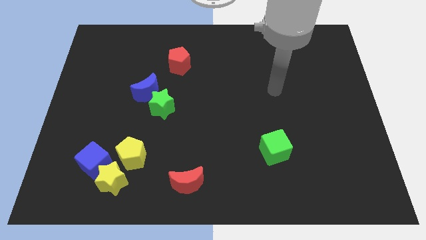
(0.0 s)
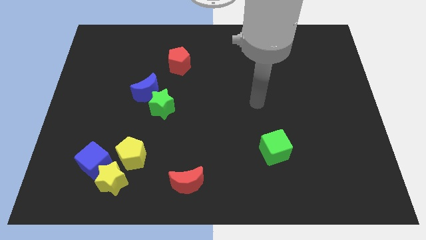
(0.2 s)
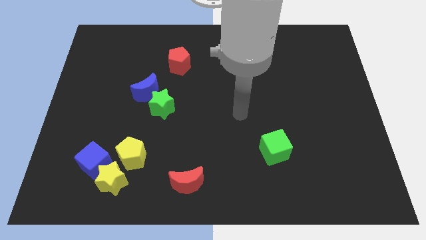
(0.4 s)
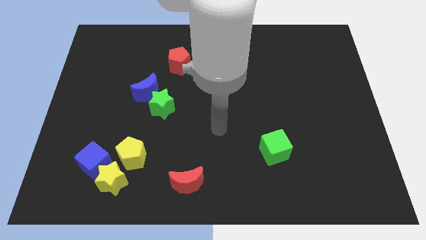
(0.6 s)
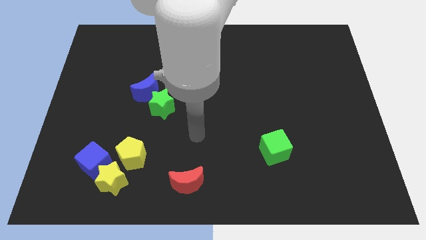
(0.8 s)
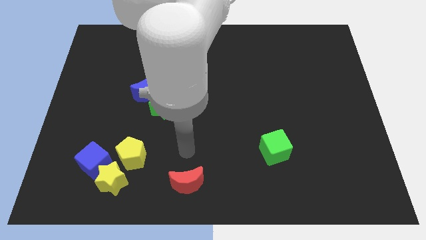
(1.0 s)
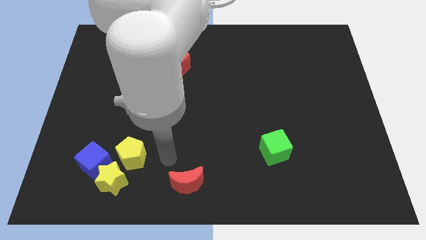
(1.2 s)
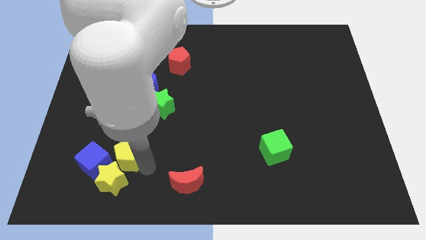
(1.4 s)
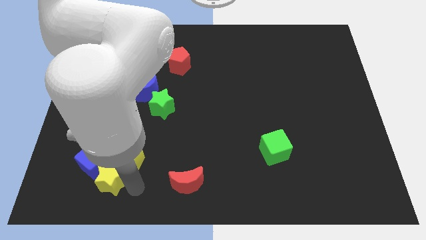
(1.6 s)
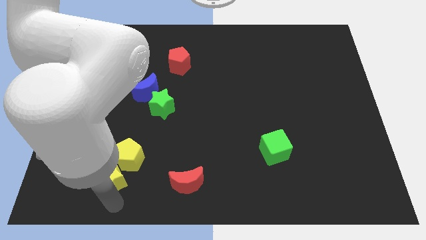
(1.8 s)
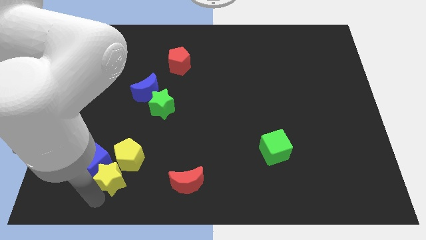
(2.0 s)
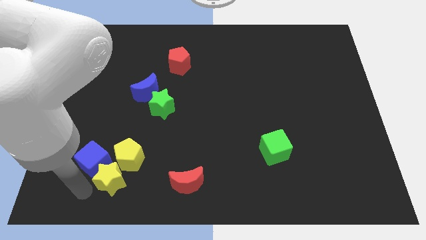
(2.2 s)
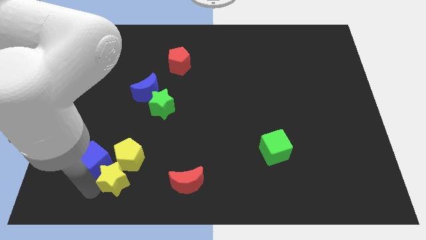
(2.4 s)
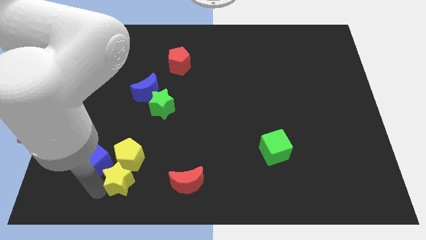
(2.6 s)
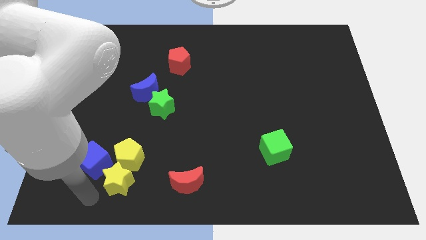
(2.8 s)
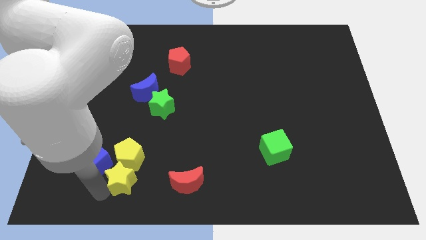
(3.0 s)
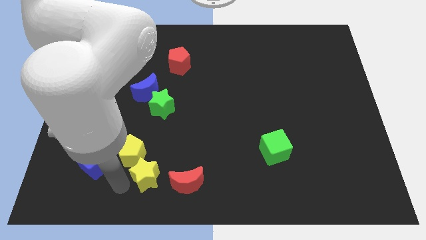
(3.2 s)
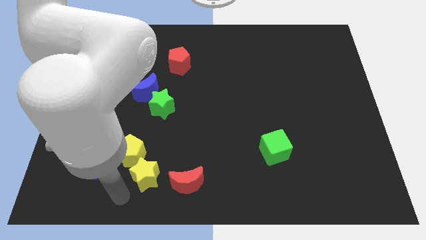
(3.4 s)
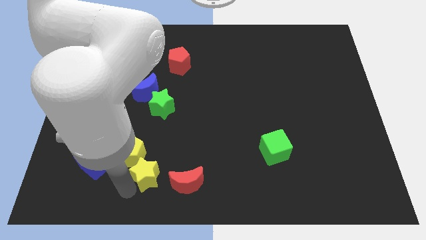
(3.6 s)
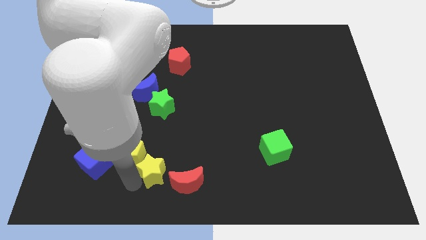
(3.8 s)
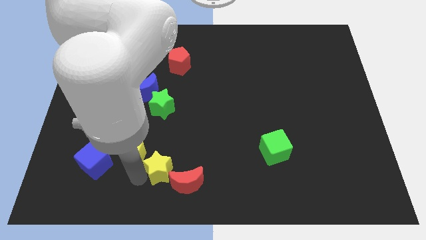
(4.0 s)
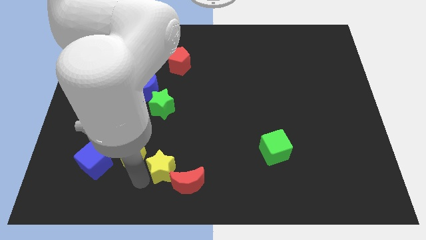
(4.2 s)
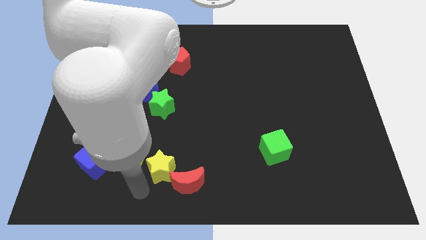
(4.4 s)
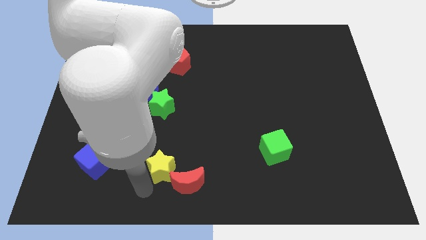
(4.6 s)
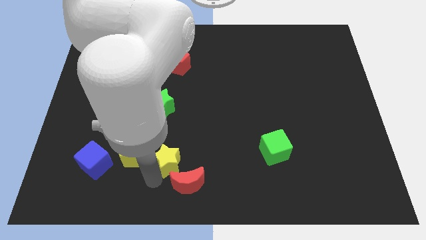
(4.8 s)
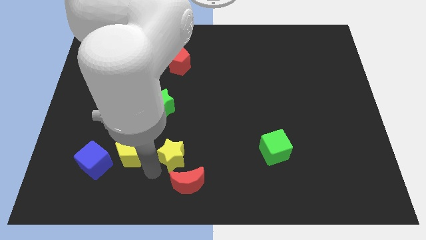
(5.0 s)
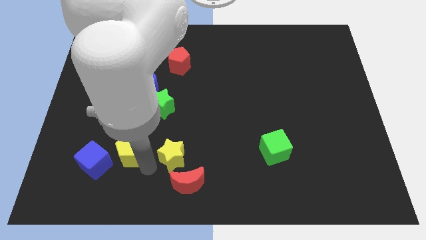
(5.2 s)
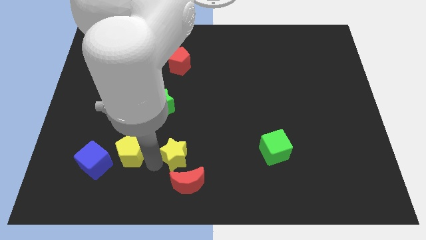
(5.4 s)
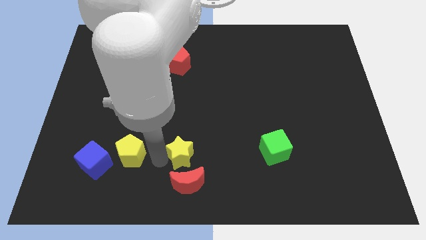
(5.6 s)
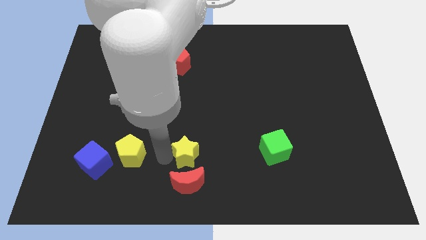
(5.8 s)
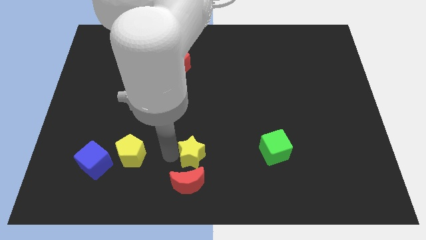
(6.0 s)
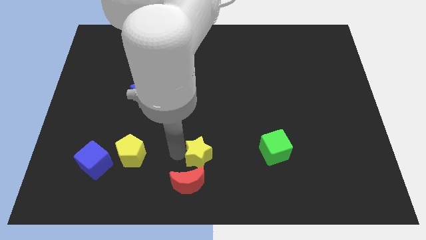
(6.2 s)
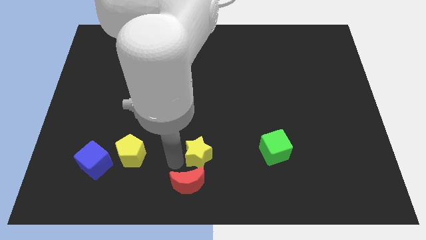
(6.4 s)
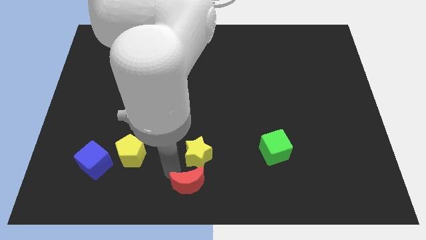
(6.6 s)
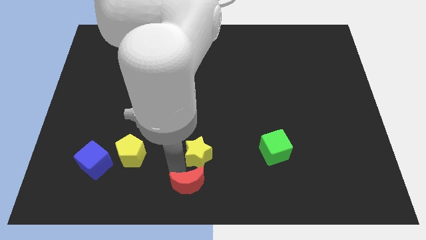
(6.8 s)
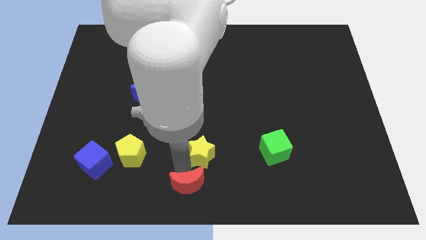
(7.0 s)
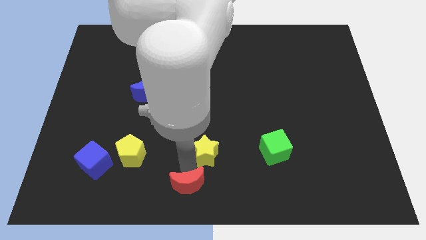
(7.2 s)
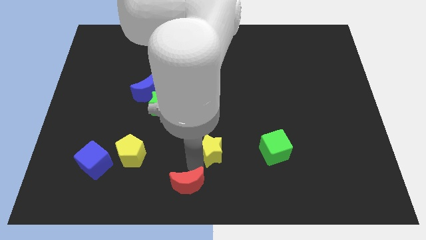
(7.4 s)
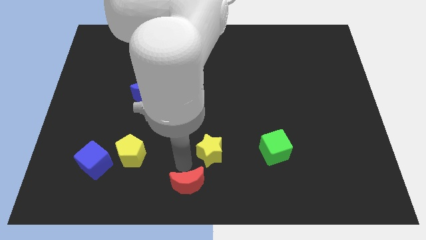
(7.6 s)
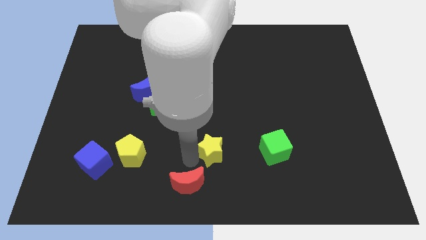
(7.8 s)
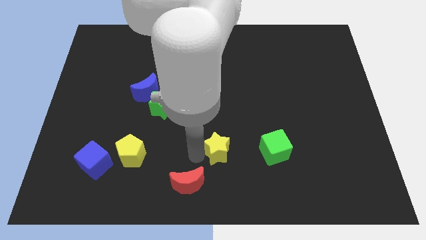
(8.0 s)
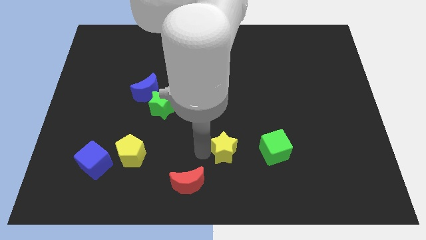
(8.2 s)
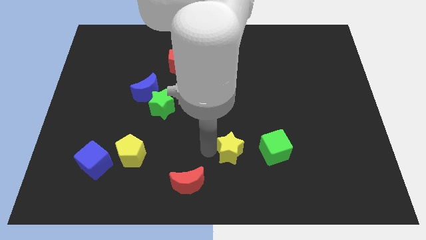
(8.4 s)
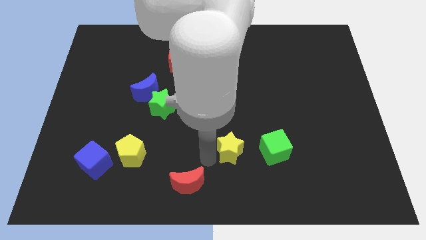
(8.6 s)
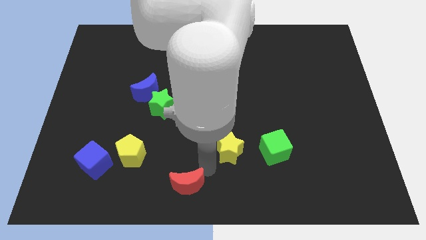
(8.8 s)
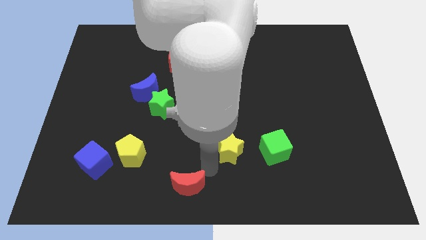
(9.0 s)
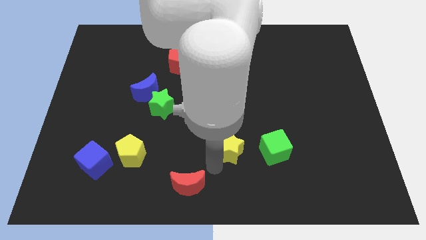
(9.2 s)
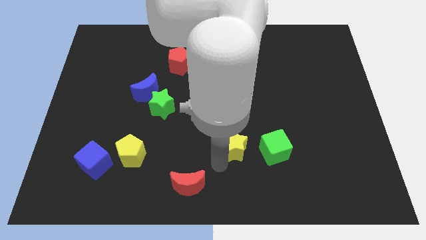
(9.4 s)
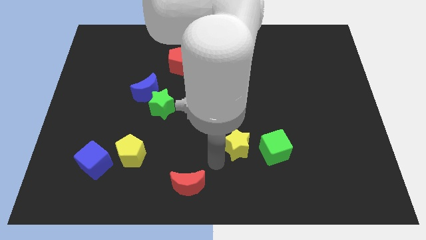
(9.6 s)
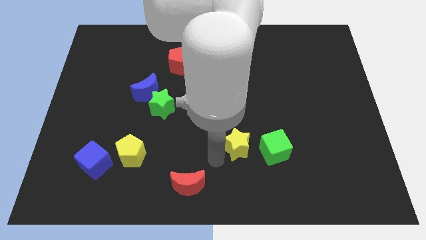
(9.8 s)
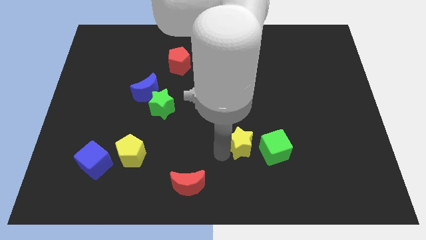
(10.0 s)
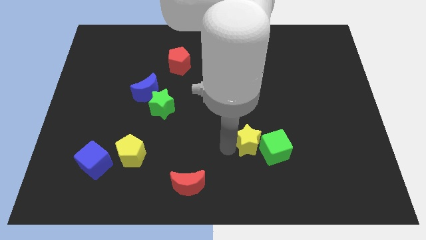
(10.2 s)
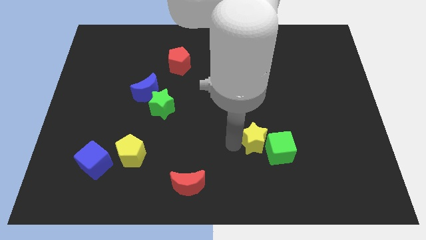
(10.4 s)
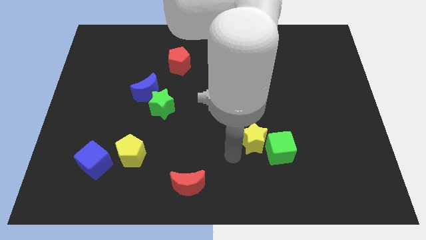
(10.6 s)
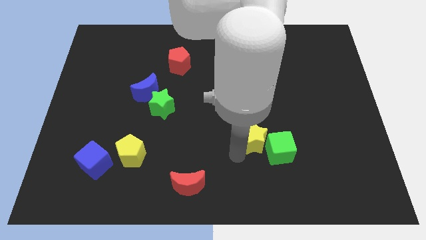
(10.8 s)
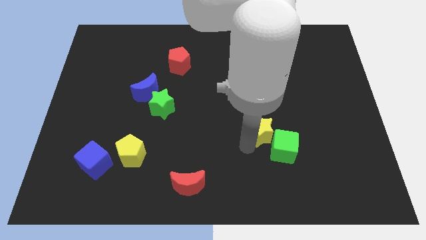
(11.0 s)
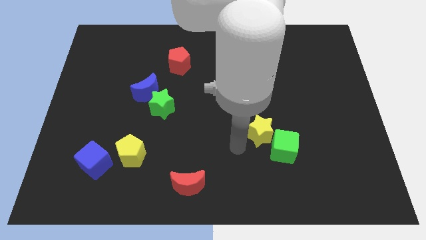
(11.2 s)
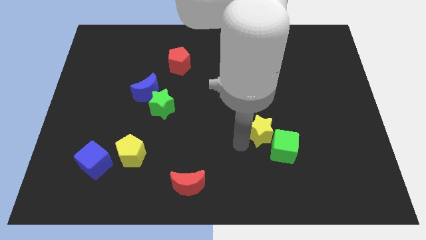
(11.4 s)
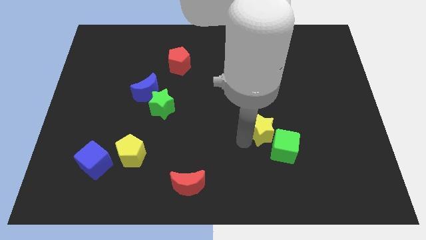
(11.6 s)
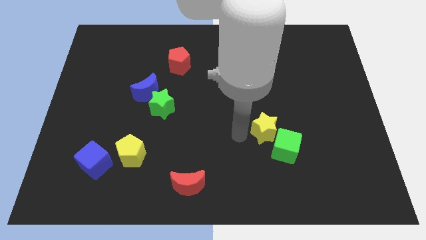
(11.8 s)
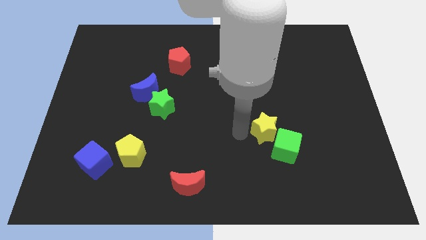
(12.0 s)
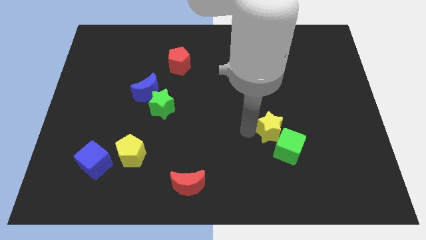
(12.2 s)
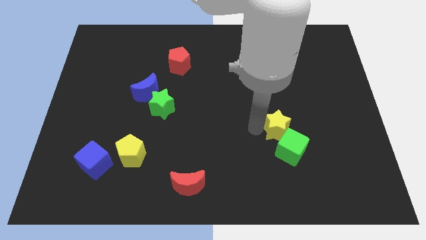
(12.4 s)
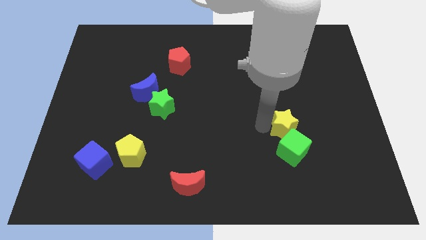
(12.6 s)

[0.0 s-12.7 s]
put the yellow star to the top right of the green cube
